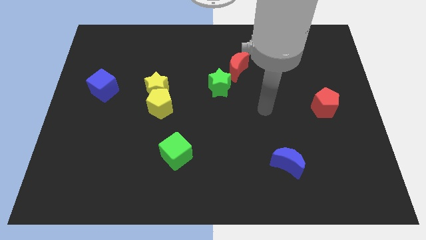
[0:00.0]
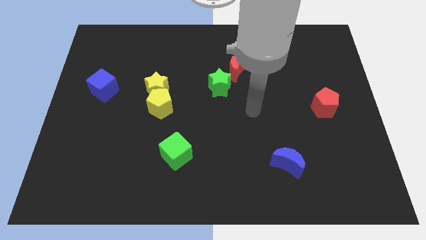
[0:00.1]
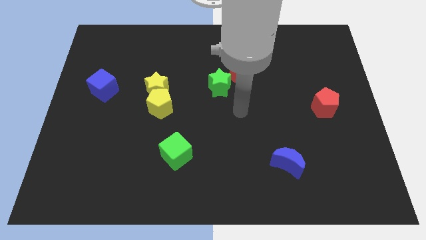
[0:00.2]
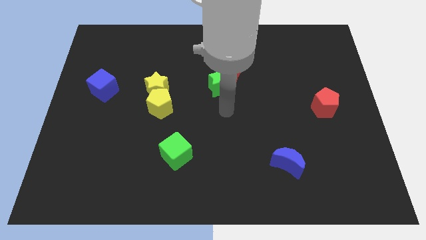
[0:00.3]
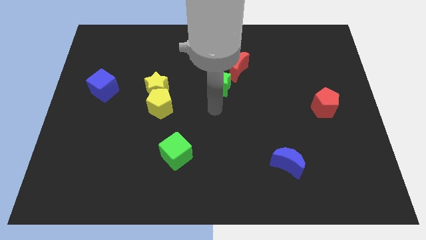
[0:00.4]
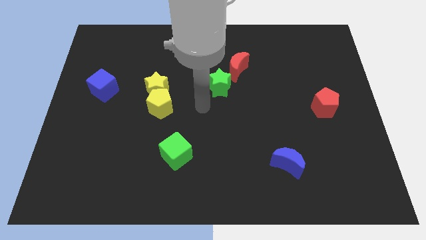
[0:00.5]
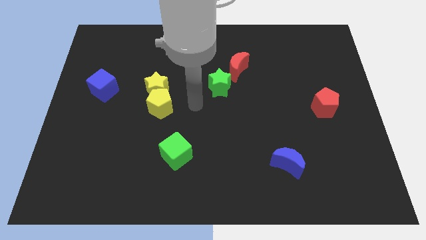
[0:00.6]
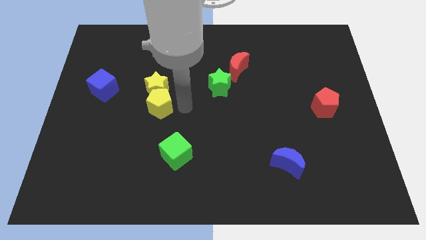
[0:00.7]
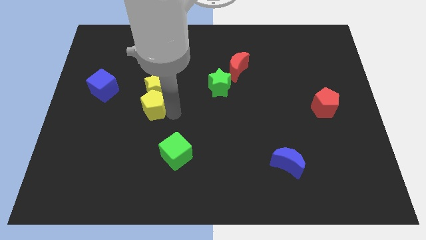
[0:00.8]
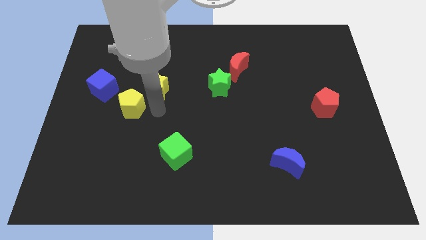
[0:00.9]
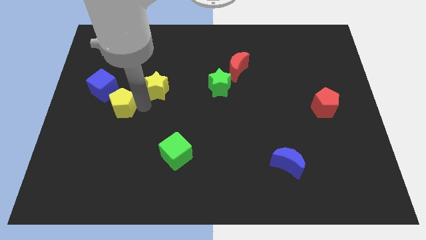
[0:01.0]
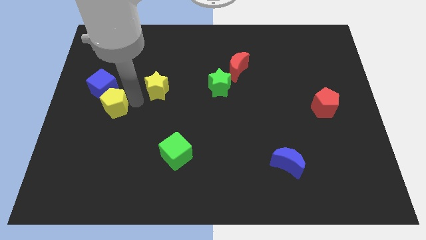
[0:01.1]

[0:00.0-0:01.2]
pull the yellow star apart from the yellow pentagon

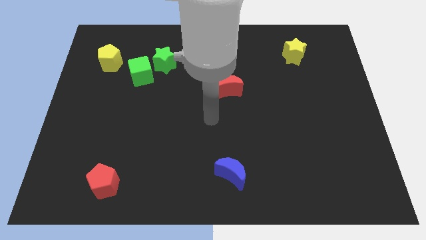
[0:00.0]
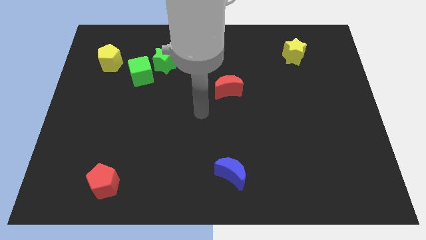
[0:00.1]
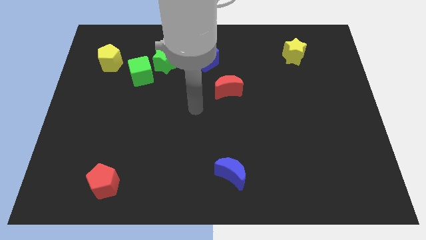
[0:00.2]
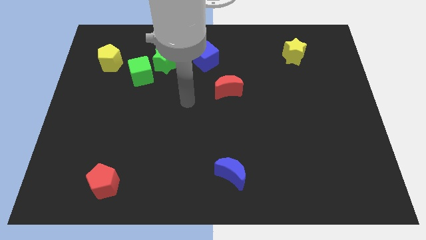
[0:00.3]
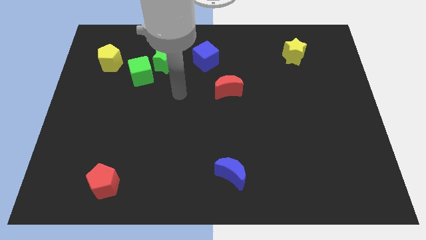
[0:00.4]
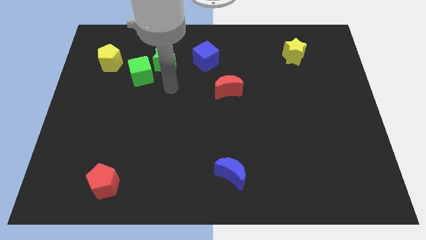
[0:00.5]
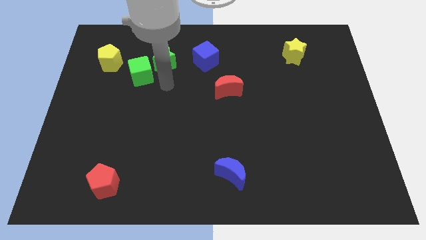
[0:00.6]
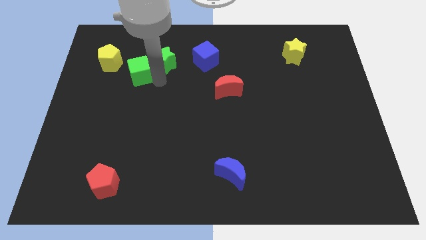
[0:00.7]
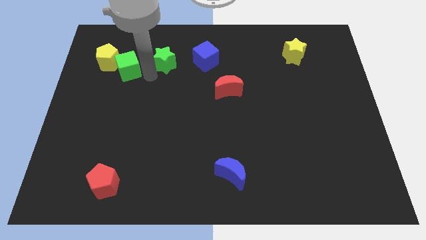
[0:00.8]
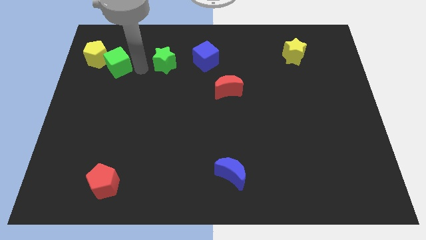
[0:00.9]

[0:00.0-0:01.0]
separate the green star from the green cube

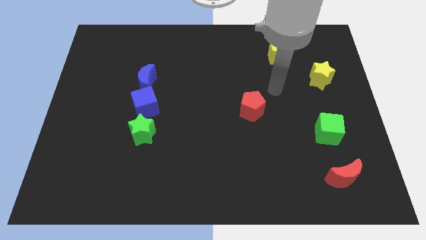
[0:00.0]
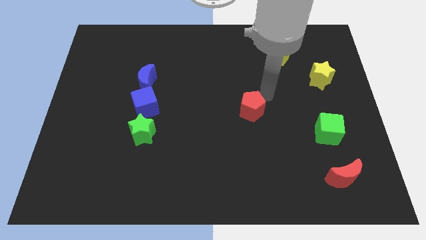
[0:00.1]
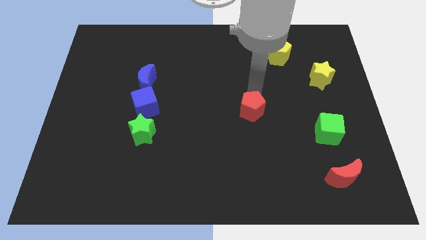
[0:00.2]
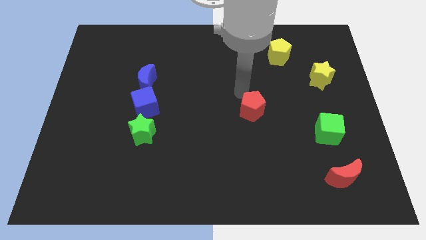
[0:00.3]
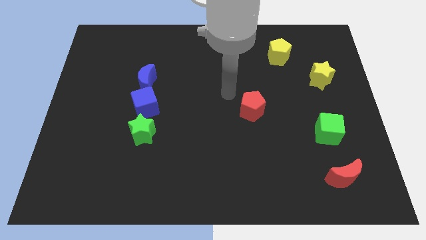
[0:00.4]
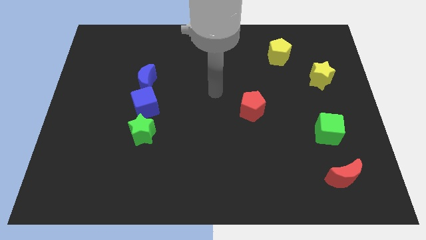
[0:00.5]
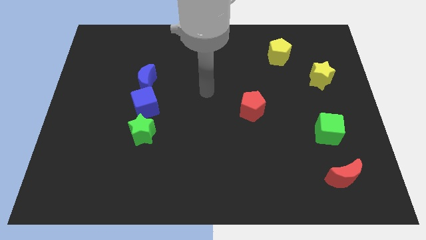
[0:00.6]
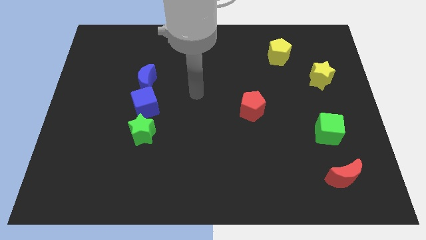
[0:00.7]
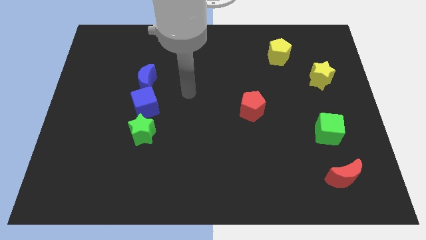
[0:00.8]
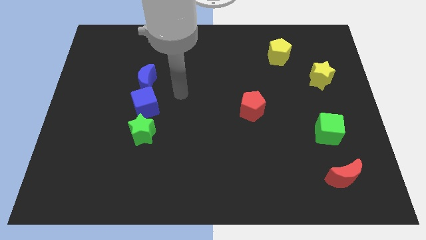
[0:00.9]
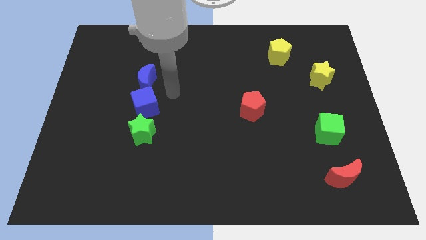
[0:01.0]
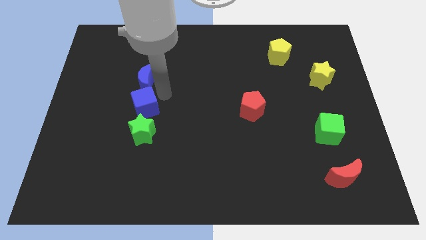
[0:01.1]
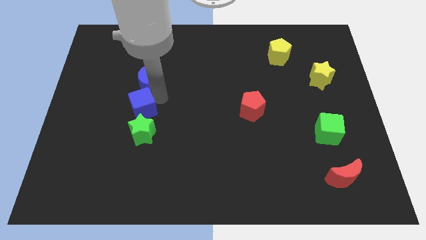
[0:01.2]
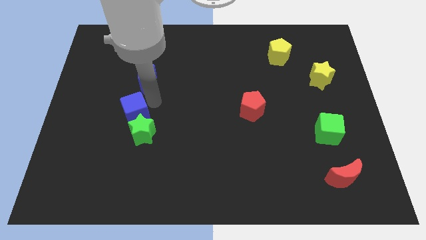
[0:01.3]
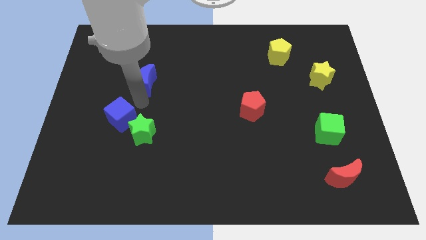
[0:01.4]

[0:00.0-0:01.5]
separate the blue moon from the blue cube

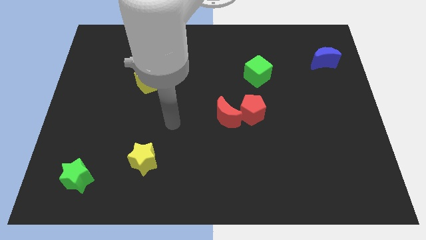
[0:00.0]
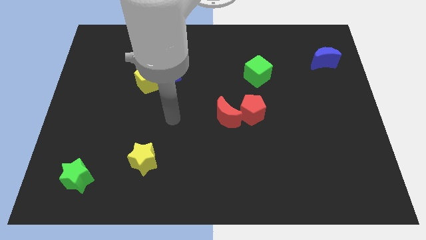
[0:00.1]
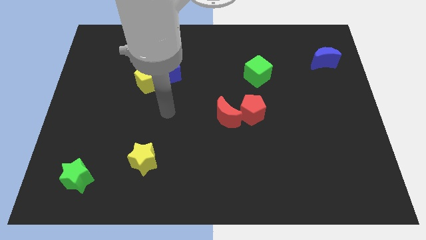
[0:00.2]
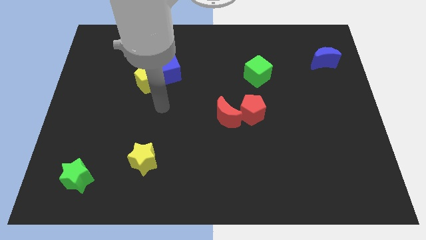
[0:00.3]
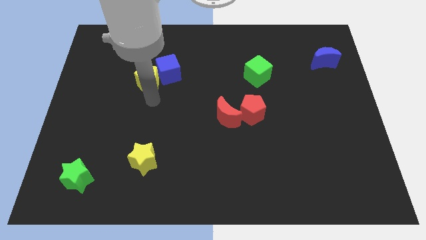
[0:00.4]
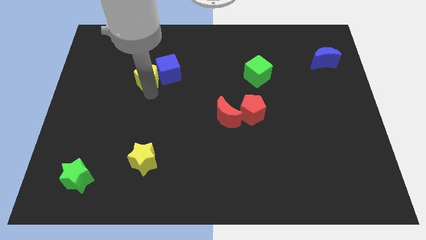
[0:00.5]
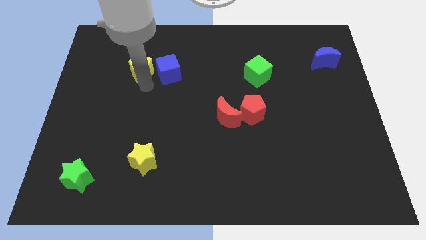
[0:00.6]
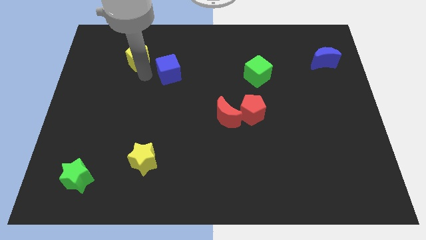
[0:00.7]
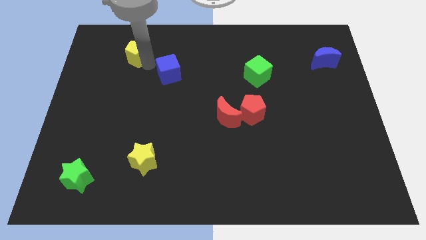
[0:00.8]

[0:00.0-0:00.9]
pull the blue cube apart from the yellow pentagon

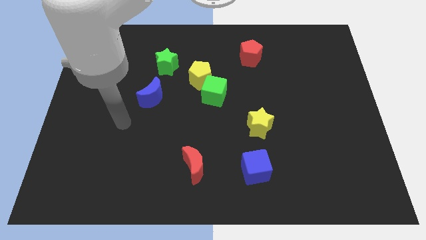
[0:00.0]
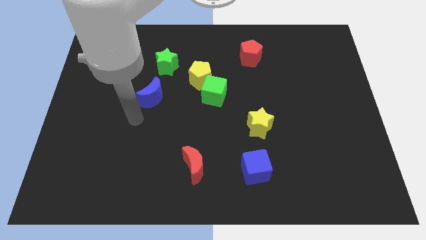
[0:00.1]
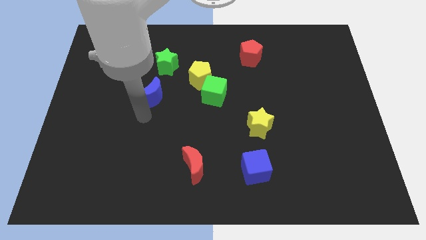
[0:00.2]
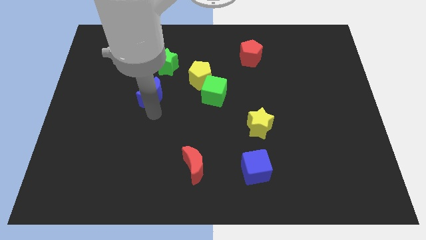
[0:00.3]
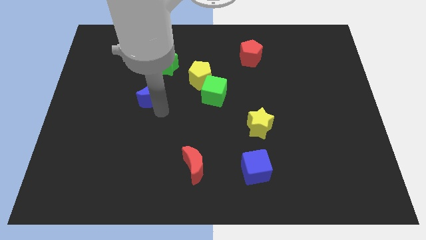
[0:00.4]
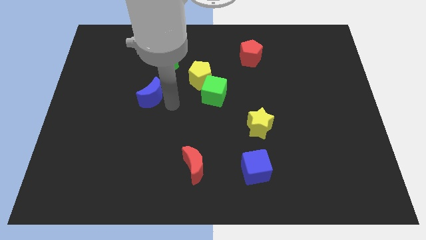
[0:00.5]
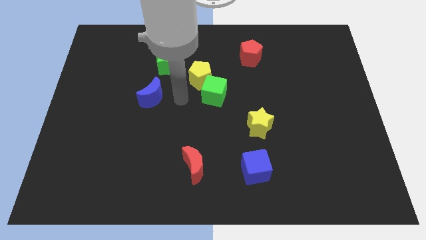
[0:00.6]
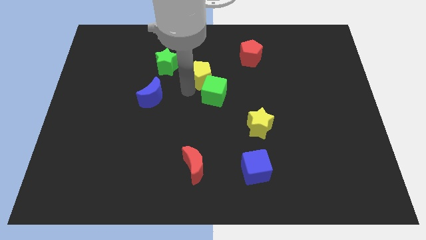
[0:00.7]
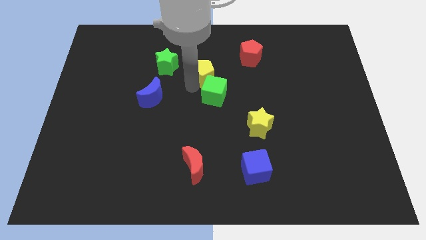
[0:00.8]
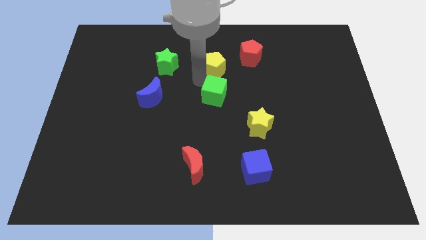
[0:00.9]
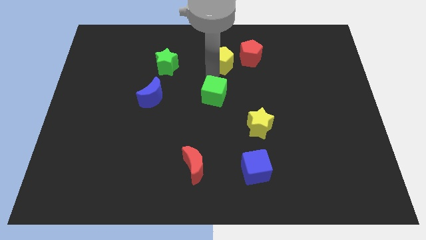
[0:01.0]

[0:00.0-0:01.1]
pull the green cube apart from the yellow pentagon

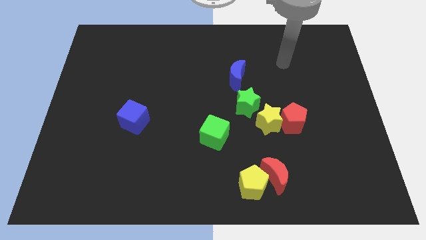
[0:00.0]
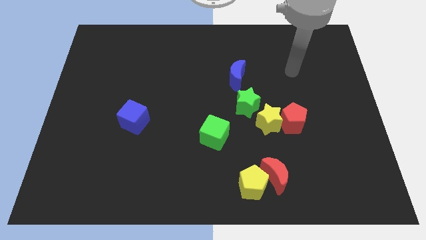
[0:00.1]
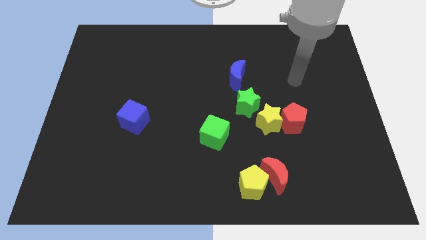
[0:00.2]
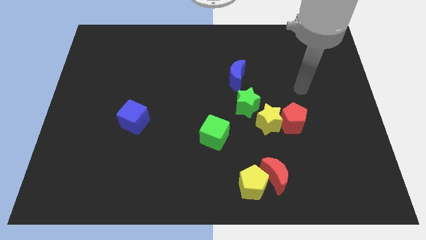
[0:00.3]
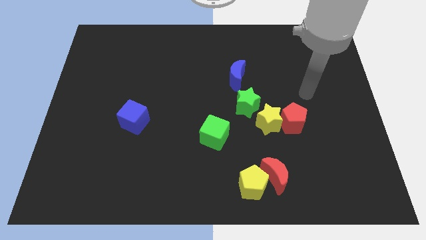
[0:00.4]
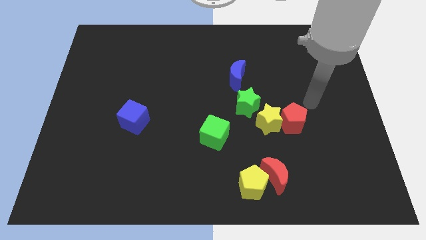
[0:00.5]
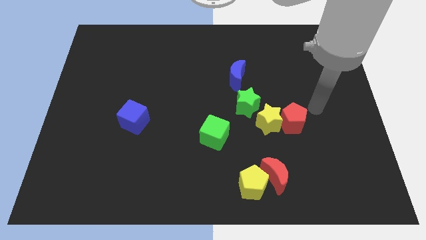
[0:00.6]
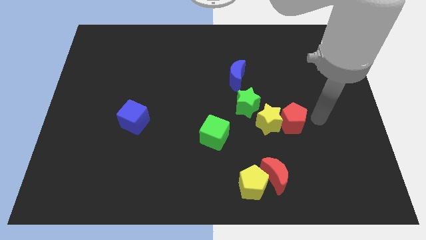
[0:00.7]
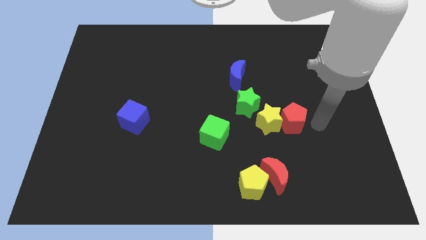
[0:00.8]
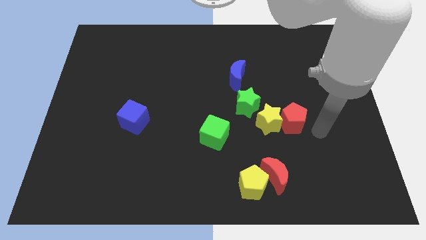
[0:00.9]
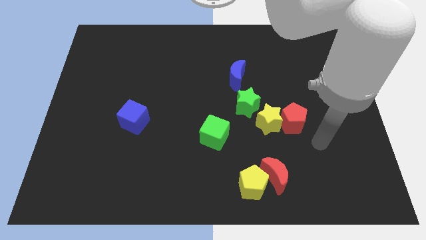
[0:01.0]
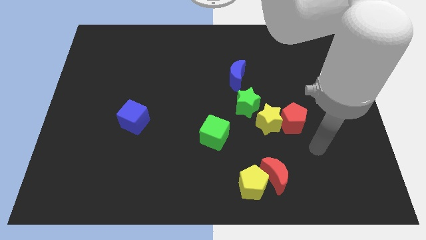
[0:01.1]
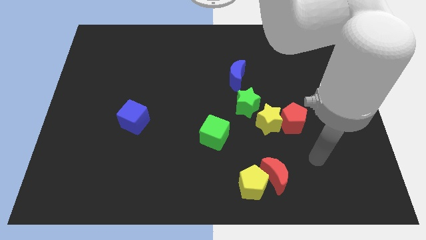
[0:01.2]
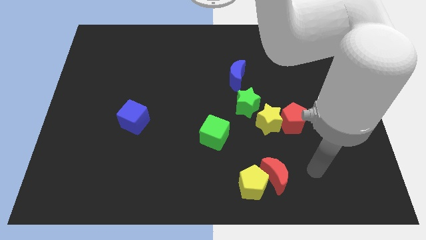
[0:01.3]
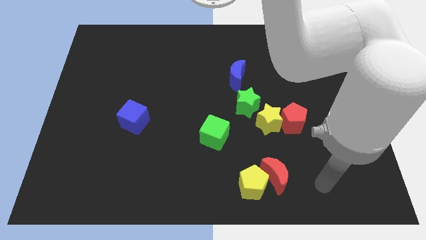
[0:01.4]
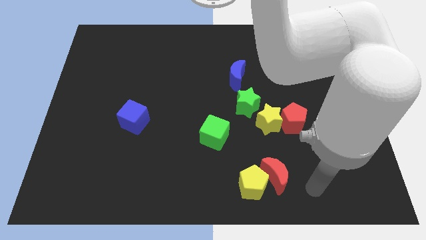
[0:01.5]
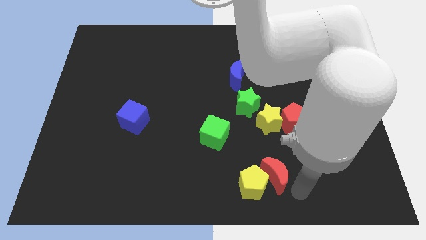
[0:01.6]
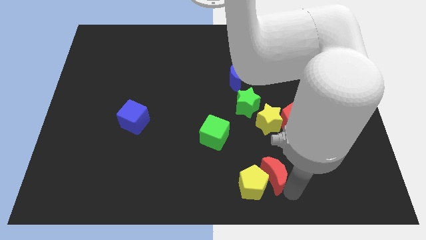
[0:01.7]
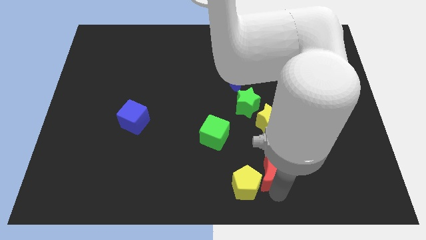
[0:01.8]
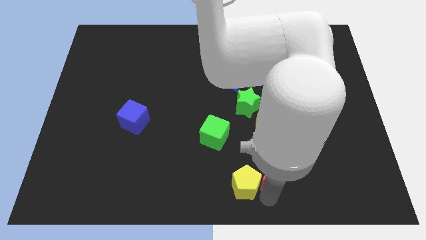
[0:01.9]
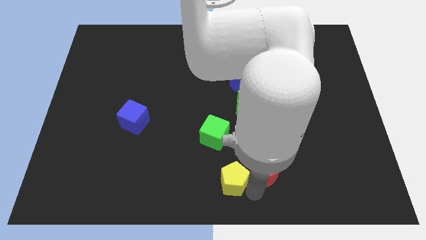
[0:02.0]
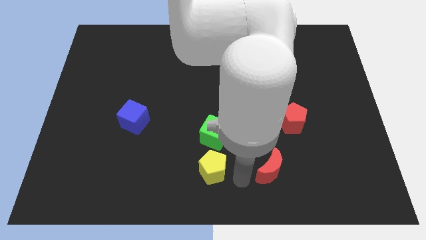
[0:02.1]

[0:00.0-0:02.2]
pull the red moon apart from the yellow pentagon

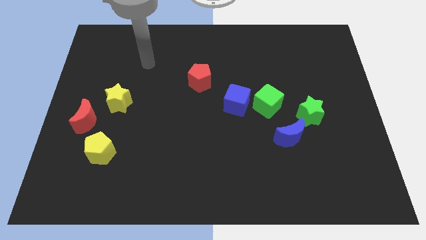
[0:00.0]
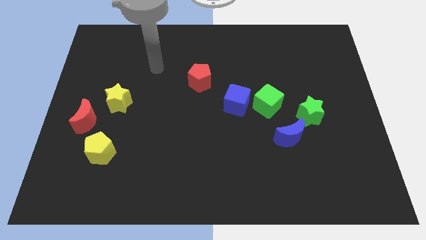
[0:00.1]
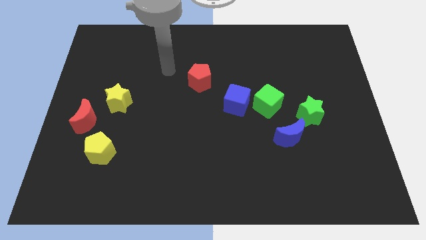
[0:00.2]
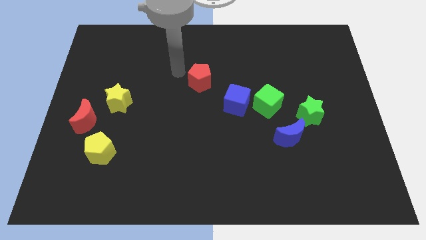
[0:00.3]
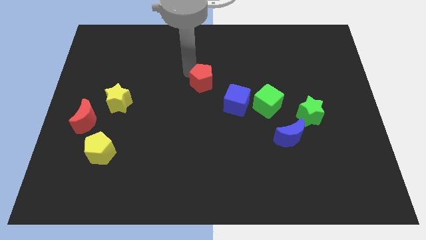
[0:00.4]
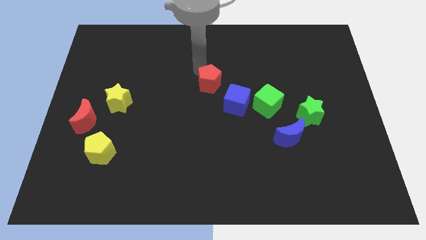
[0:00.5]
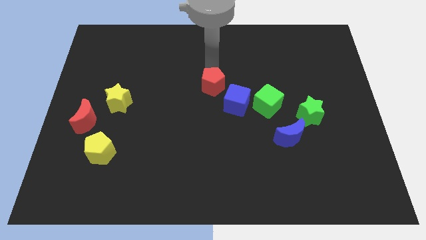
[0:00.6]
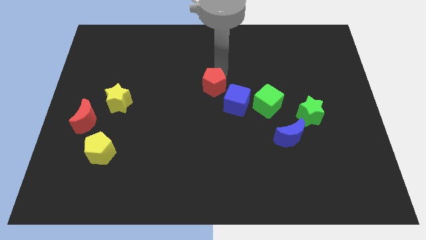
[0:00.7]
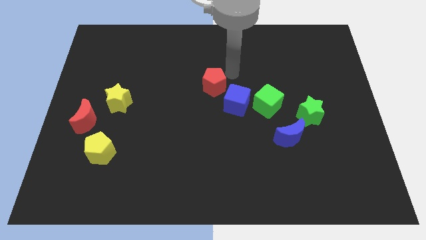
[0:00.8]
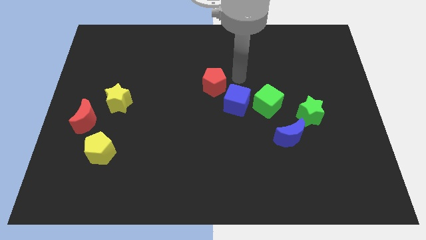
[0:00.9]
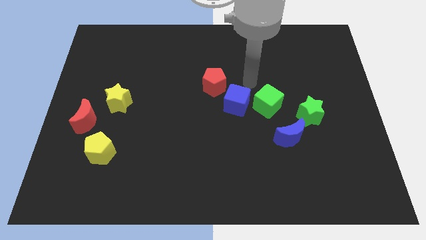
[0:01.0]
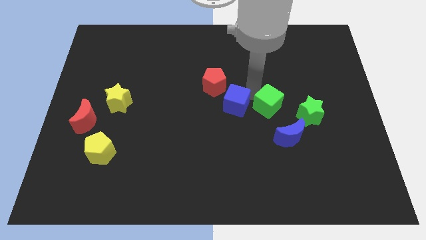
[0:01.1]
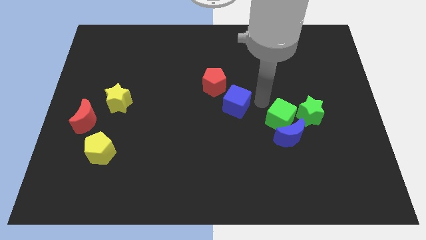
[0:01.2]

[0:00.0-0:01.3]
pull the blue cube apart from the green cube
